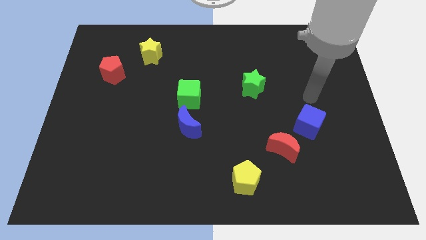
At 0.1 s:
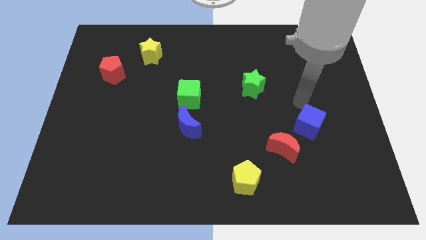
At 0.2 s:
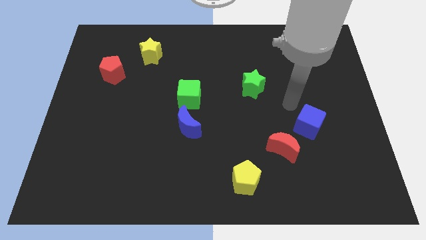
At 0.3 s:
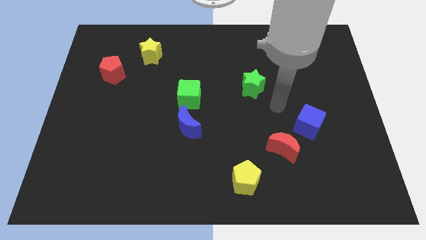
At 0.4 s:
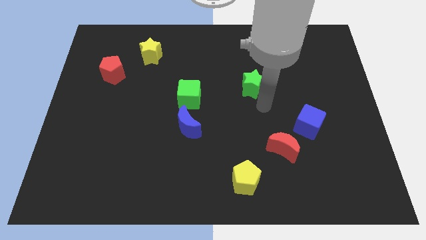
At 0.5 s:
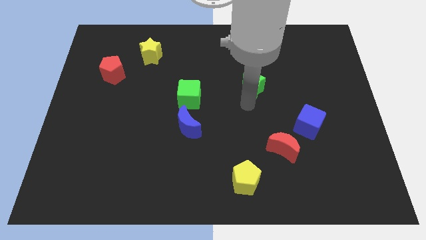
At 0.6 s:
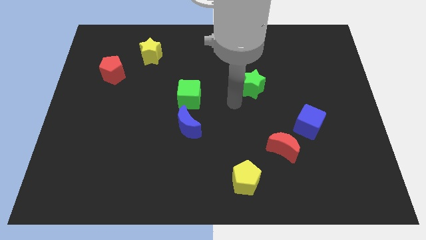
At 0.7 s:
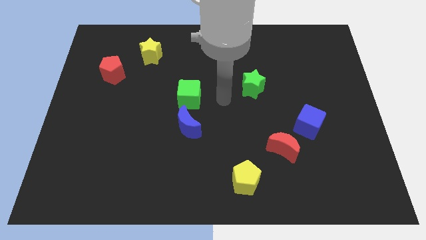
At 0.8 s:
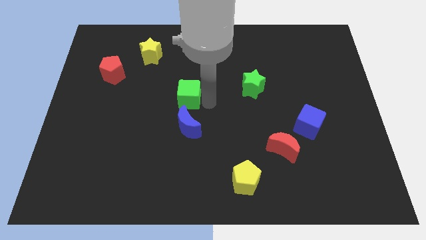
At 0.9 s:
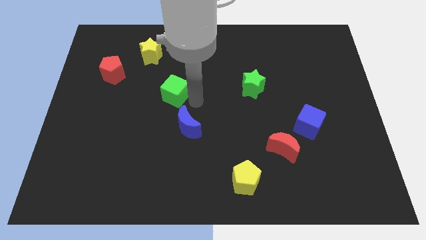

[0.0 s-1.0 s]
move the blue moon away from the green cube

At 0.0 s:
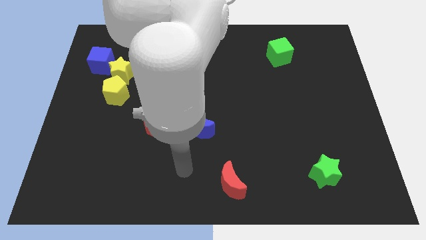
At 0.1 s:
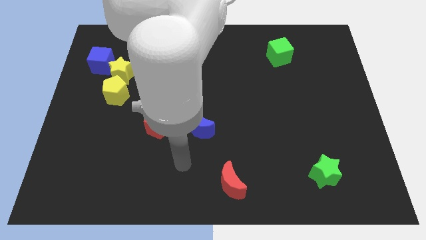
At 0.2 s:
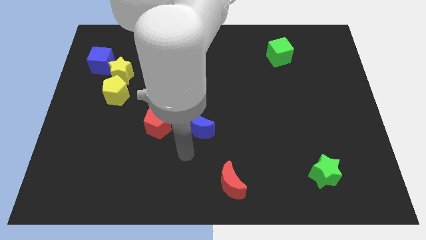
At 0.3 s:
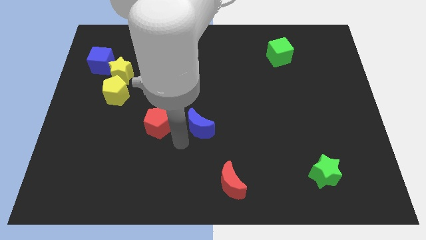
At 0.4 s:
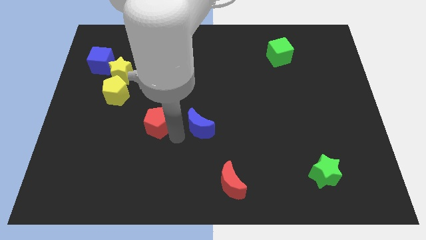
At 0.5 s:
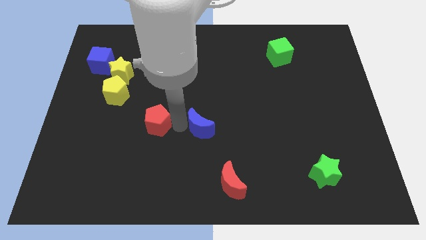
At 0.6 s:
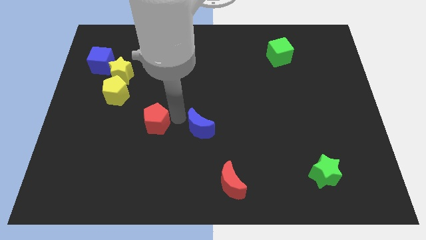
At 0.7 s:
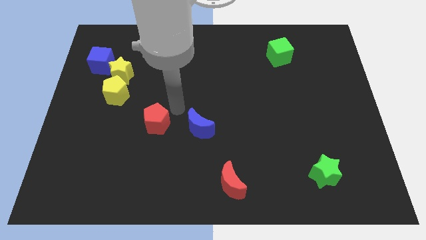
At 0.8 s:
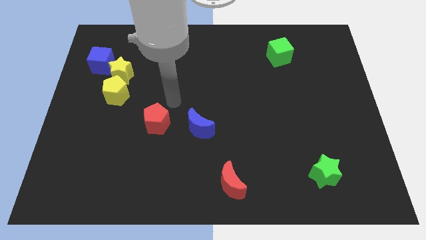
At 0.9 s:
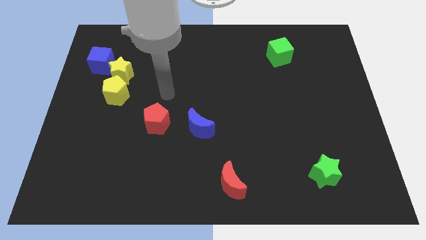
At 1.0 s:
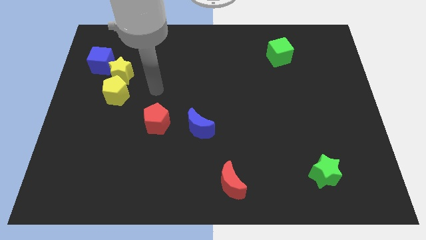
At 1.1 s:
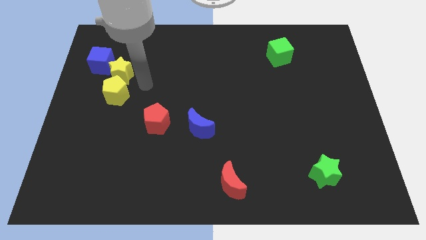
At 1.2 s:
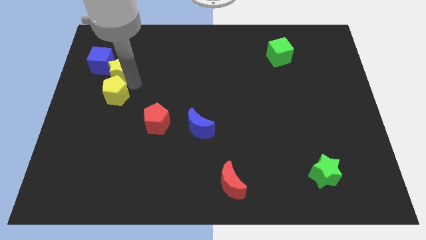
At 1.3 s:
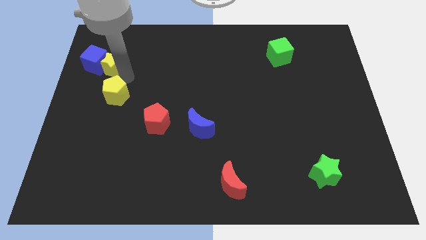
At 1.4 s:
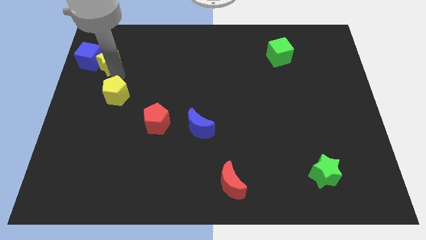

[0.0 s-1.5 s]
pull the yellow pentagon apart from the yellow star

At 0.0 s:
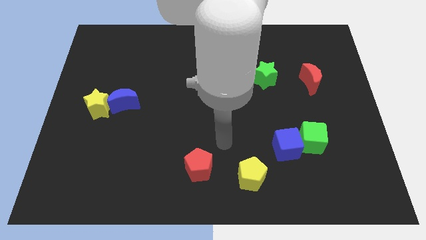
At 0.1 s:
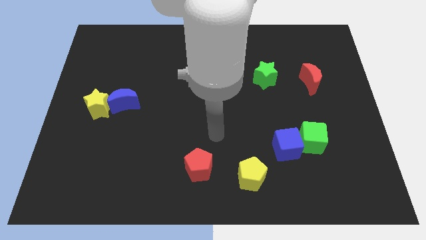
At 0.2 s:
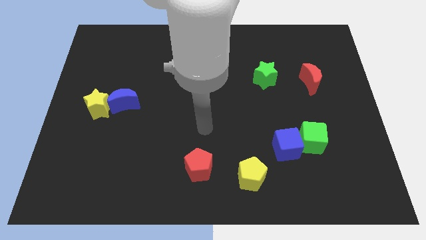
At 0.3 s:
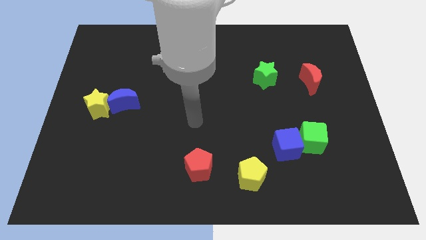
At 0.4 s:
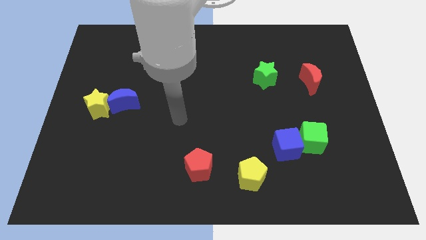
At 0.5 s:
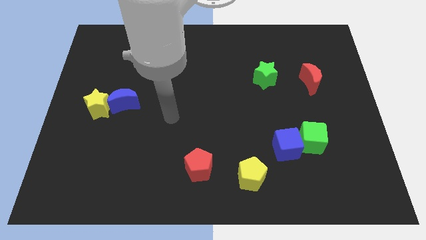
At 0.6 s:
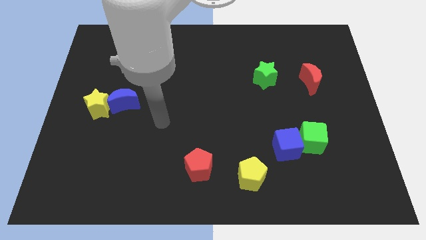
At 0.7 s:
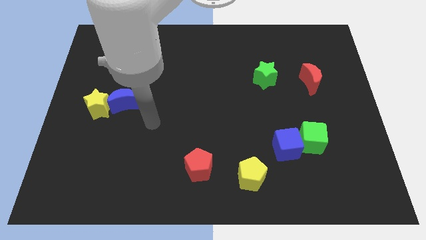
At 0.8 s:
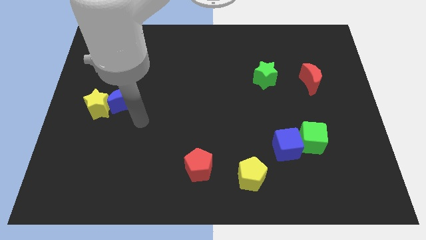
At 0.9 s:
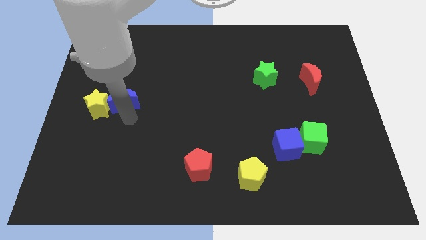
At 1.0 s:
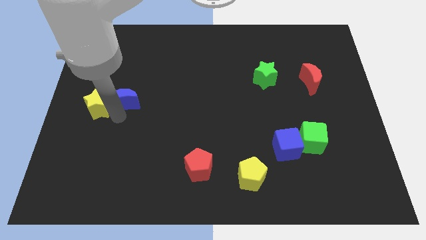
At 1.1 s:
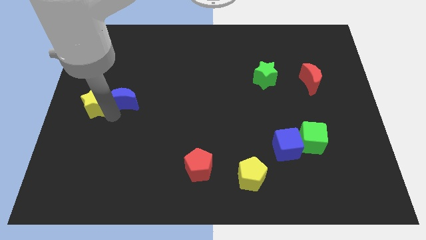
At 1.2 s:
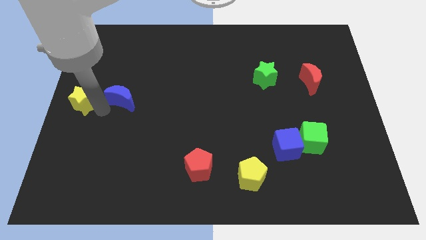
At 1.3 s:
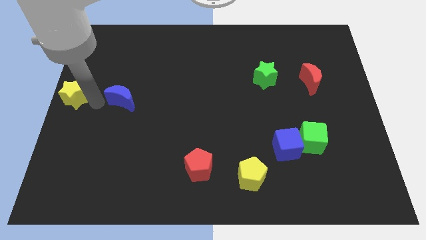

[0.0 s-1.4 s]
separate the blue moon from the yellow star

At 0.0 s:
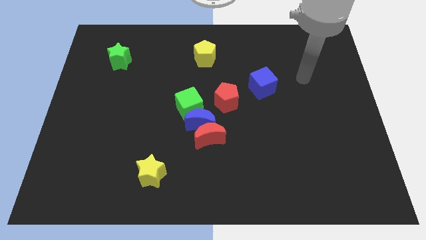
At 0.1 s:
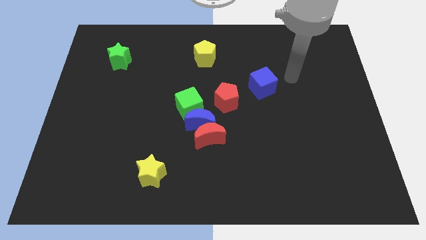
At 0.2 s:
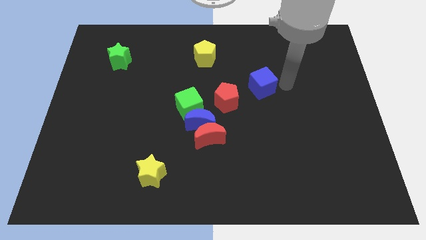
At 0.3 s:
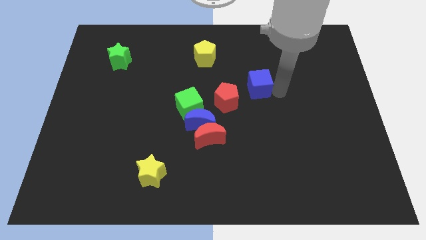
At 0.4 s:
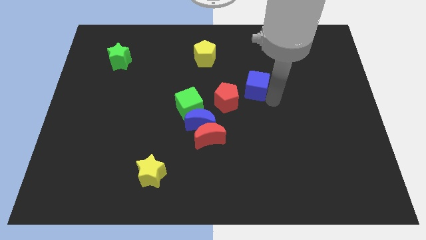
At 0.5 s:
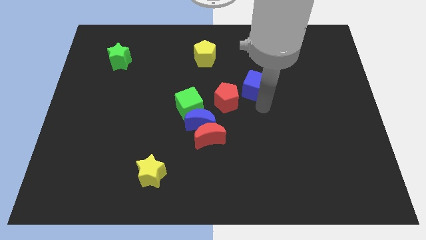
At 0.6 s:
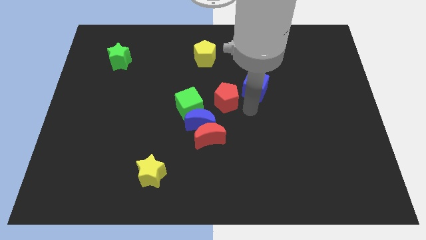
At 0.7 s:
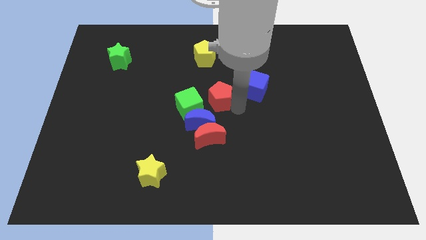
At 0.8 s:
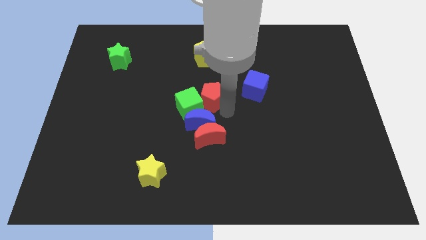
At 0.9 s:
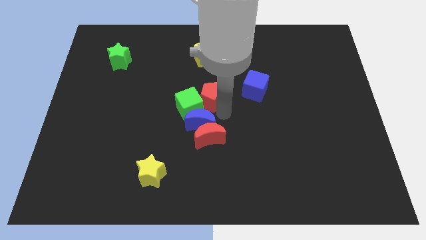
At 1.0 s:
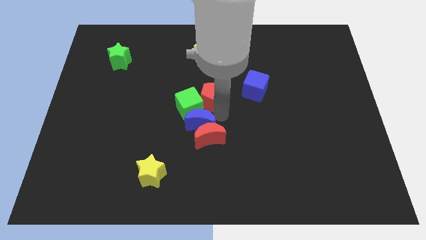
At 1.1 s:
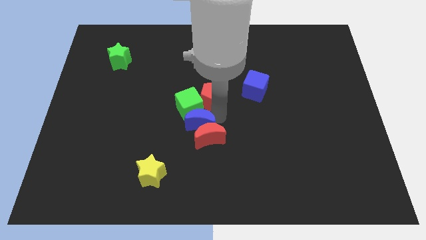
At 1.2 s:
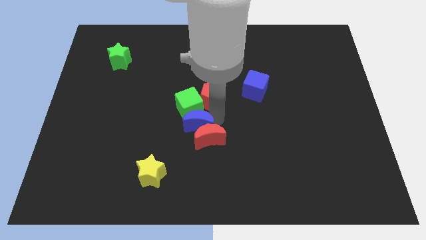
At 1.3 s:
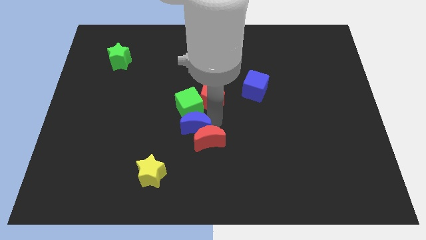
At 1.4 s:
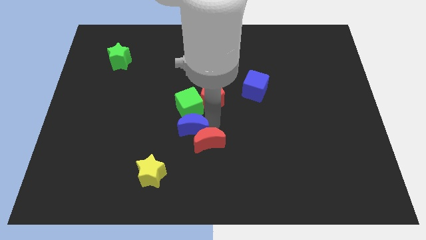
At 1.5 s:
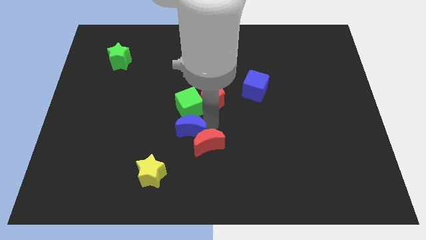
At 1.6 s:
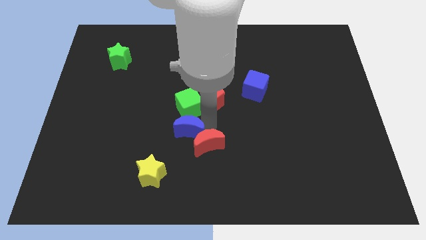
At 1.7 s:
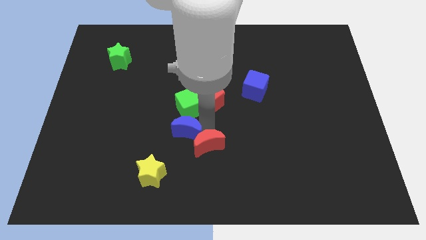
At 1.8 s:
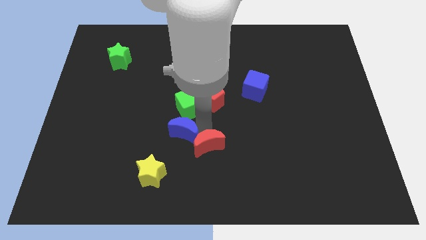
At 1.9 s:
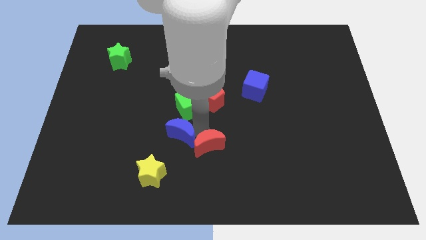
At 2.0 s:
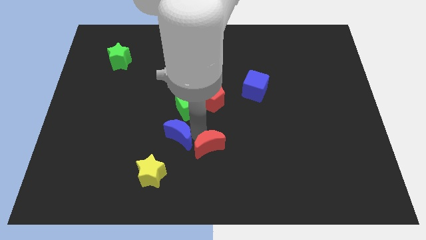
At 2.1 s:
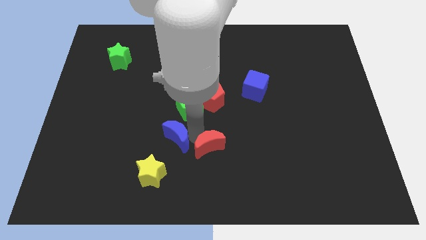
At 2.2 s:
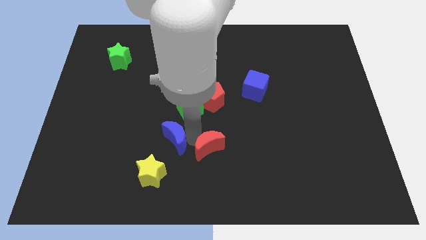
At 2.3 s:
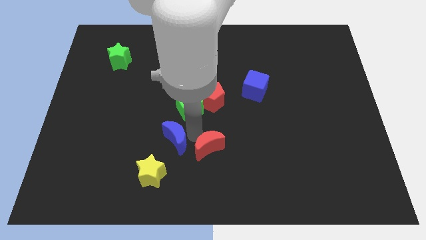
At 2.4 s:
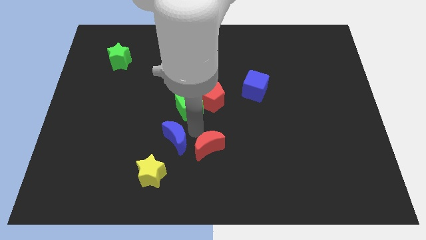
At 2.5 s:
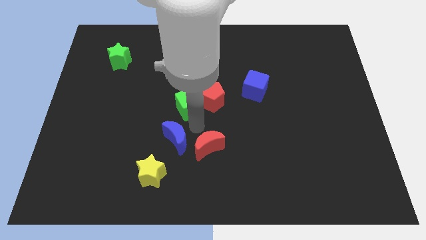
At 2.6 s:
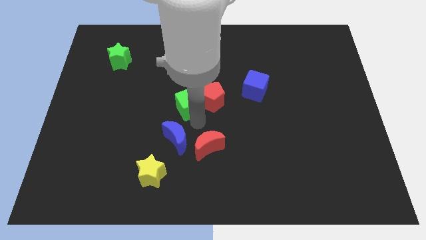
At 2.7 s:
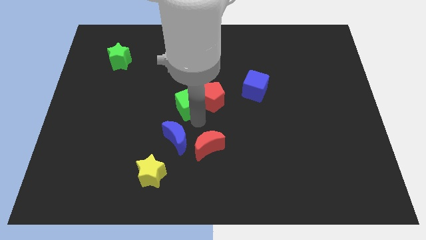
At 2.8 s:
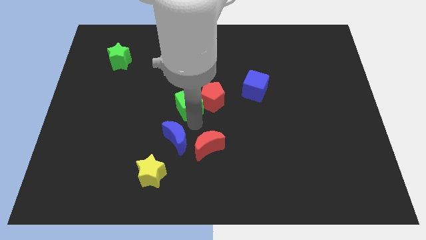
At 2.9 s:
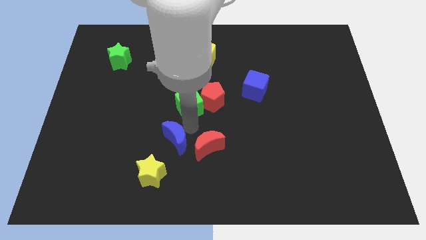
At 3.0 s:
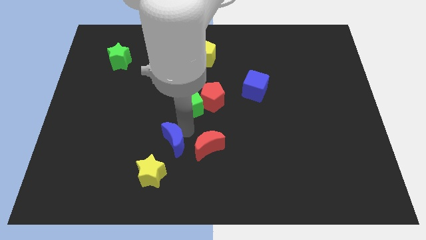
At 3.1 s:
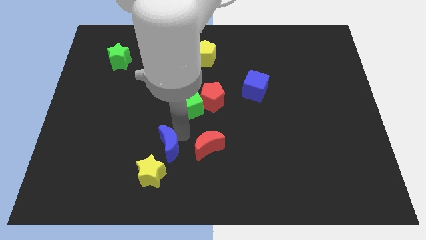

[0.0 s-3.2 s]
separate the blue moon from the red moon, green cube, and red pentagon

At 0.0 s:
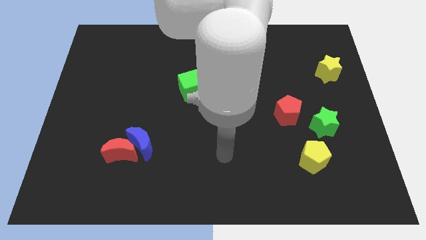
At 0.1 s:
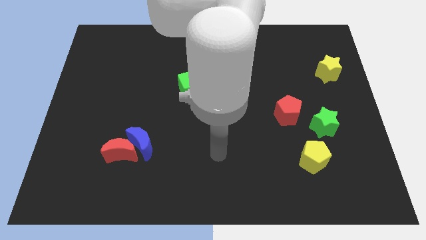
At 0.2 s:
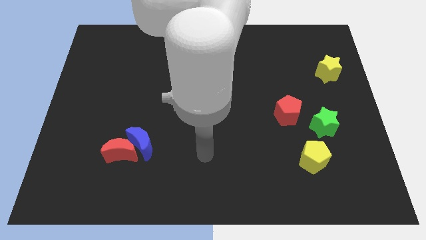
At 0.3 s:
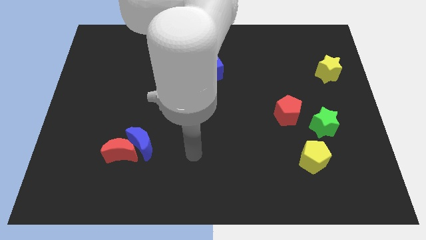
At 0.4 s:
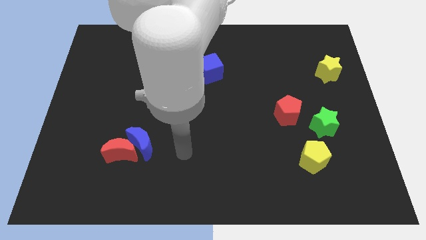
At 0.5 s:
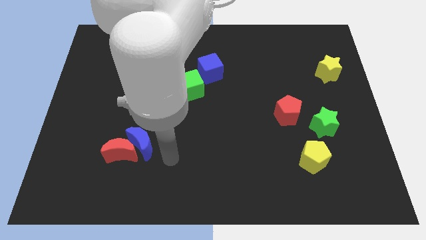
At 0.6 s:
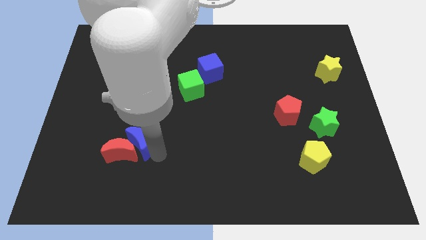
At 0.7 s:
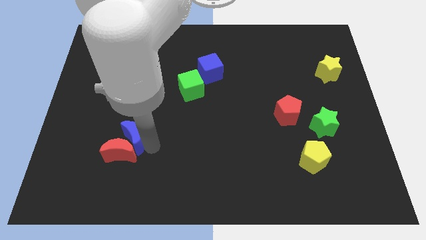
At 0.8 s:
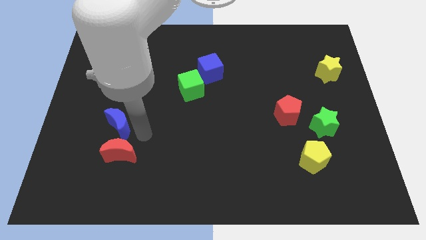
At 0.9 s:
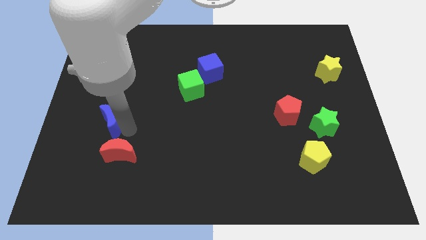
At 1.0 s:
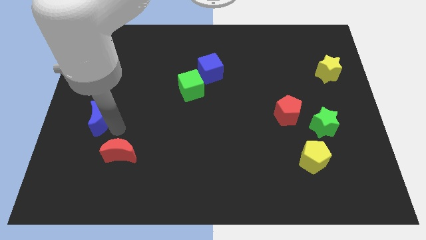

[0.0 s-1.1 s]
separate the red moon from the blue moon

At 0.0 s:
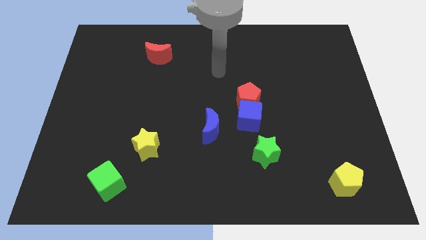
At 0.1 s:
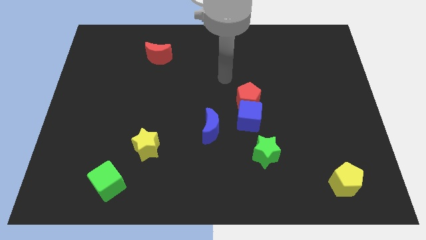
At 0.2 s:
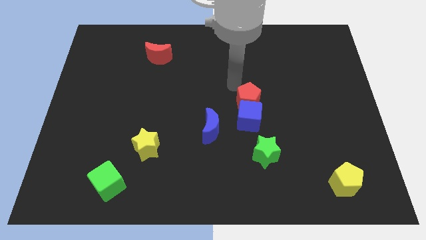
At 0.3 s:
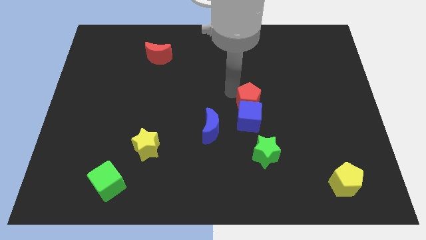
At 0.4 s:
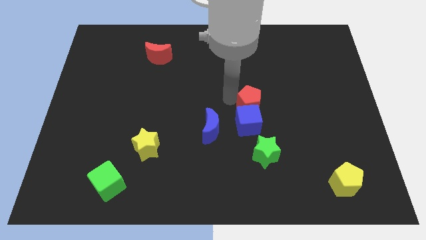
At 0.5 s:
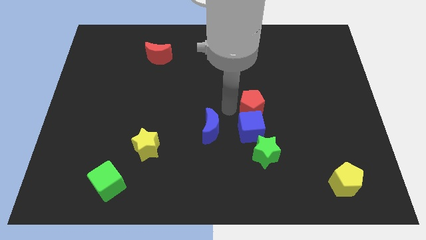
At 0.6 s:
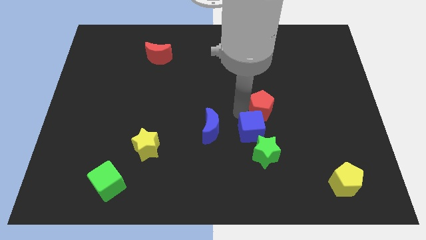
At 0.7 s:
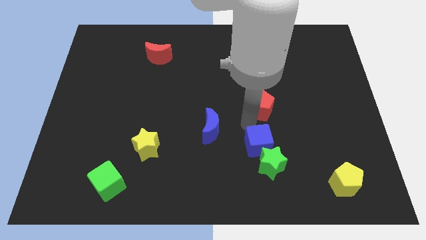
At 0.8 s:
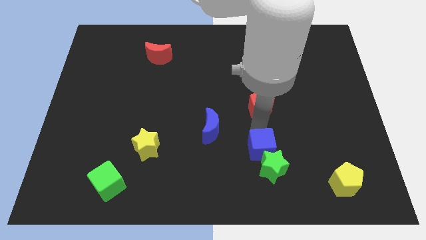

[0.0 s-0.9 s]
pull the red pentagon apart from the blue cube

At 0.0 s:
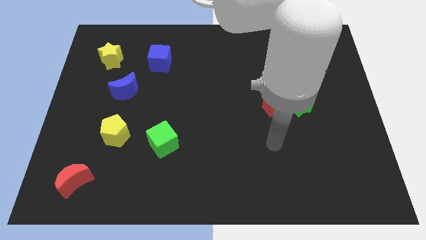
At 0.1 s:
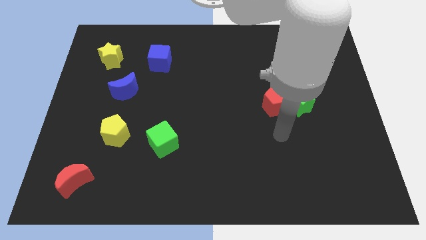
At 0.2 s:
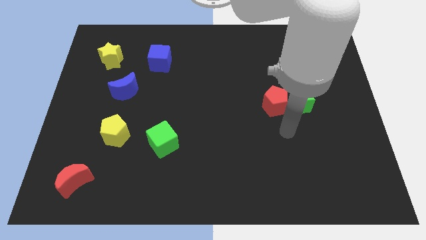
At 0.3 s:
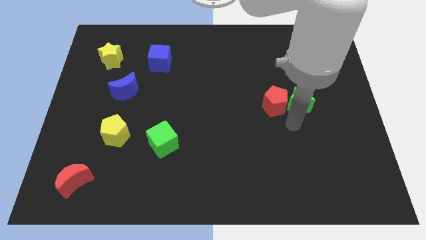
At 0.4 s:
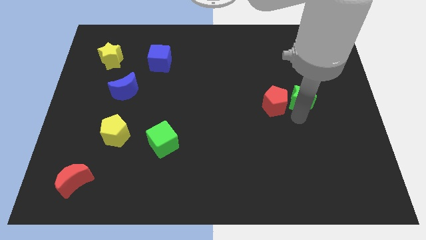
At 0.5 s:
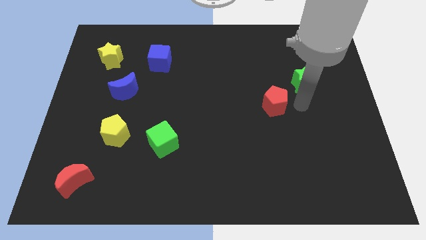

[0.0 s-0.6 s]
separate the red pentagon from the green star
